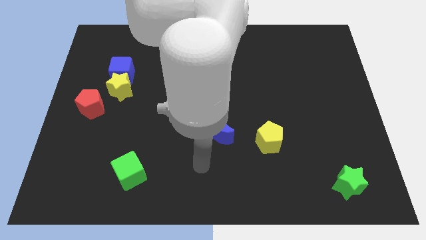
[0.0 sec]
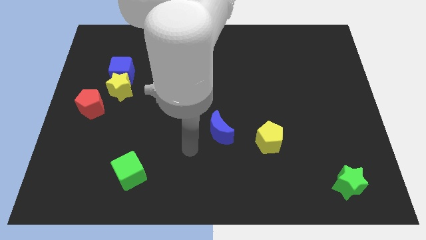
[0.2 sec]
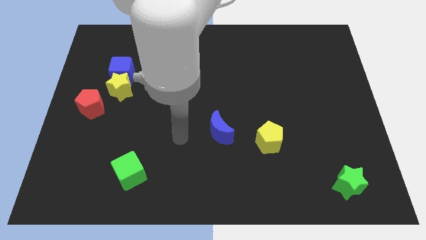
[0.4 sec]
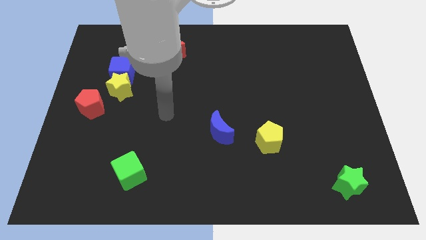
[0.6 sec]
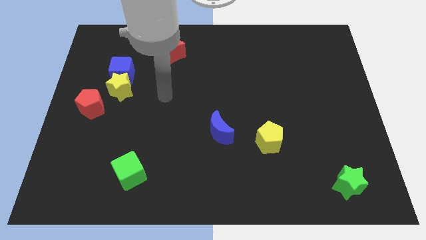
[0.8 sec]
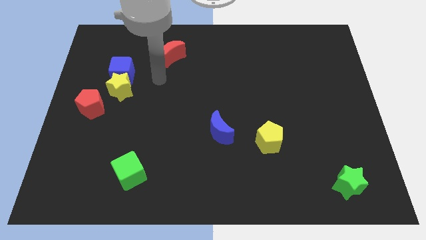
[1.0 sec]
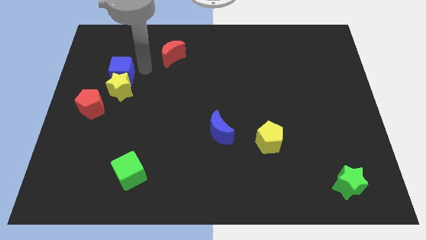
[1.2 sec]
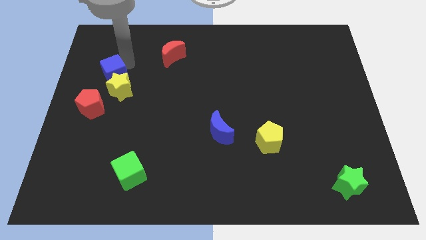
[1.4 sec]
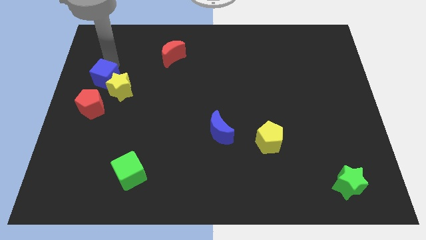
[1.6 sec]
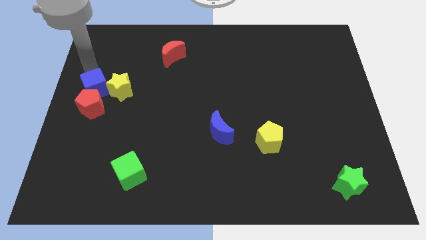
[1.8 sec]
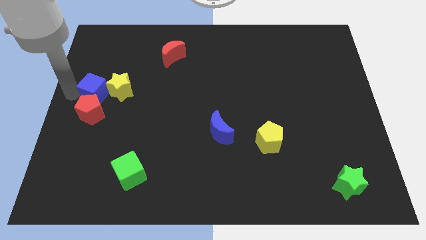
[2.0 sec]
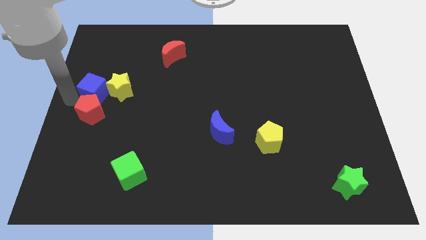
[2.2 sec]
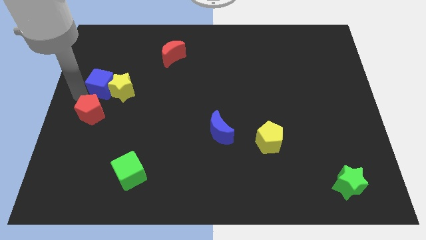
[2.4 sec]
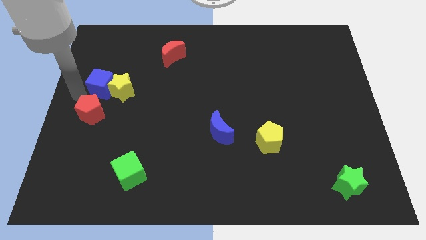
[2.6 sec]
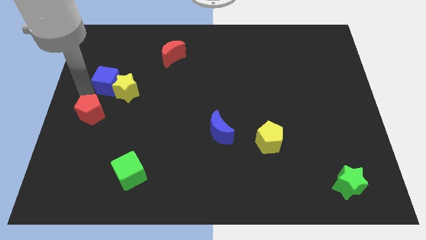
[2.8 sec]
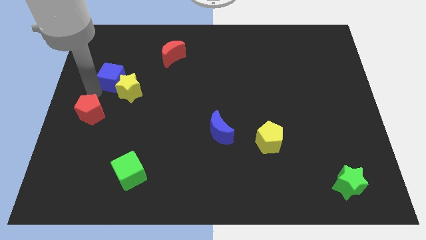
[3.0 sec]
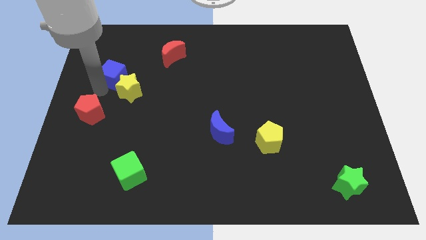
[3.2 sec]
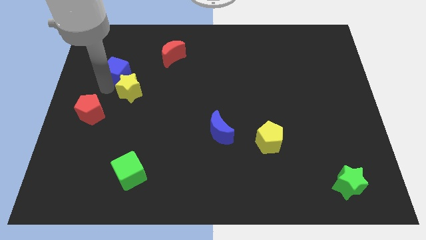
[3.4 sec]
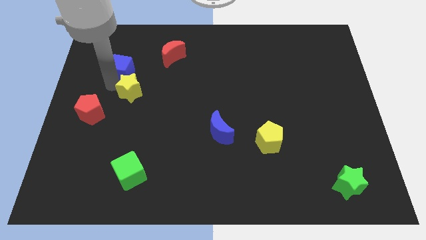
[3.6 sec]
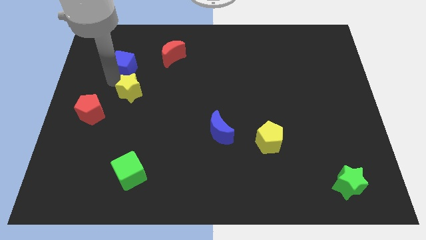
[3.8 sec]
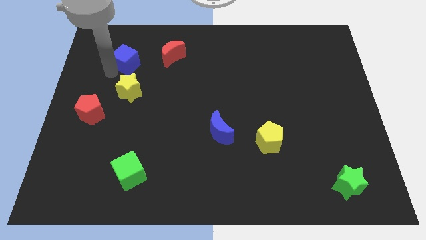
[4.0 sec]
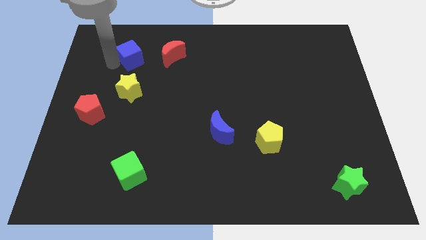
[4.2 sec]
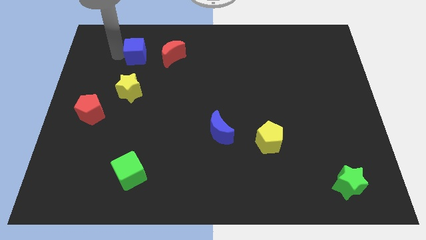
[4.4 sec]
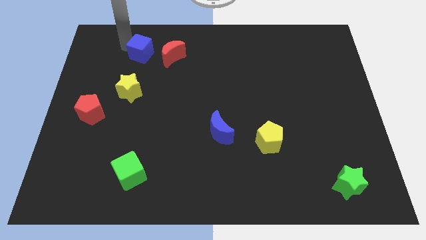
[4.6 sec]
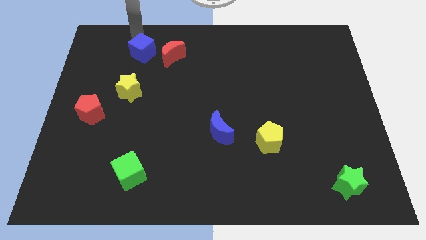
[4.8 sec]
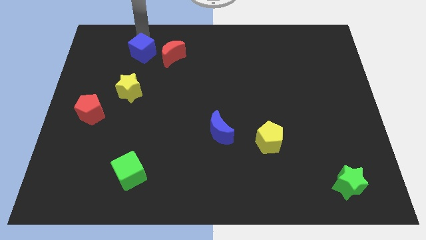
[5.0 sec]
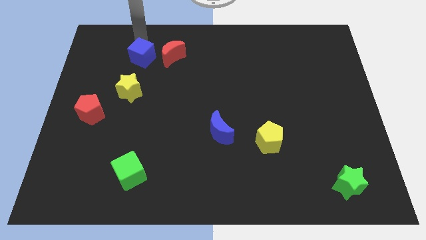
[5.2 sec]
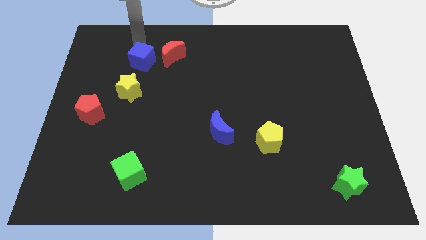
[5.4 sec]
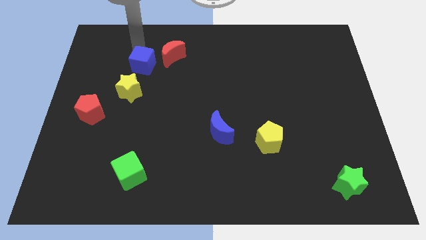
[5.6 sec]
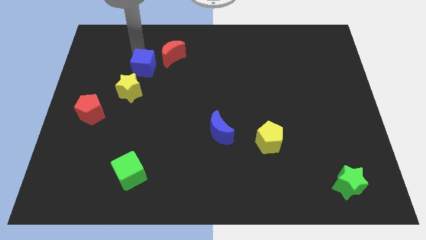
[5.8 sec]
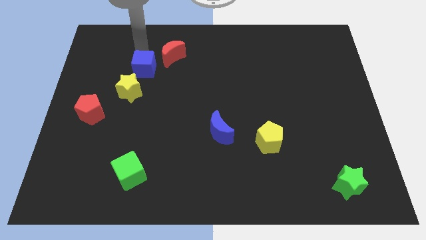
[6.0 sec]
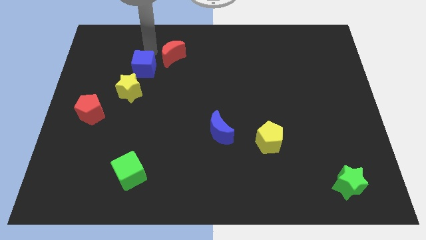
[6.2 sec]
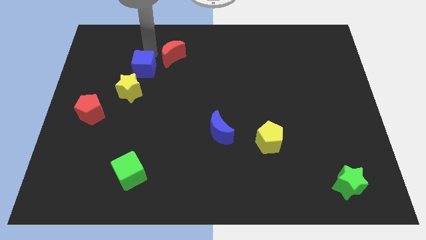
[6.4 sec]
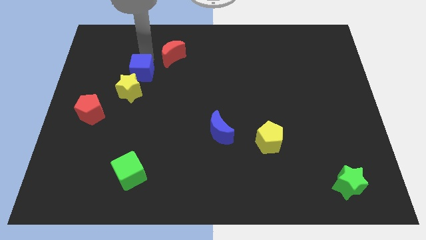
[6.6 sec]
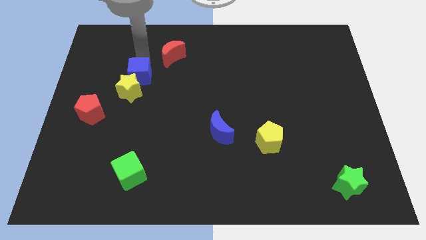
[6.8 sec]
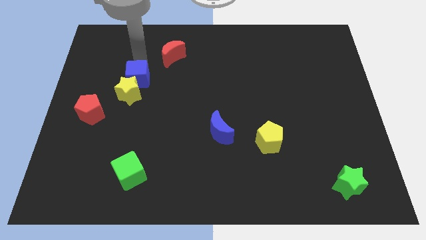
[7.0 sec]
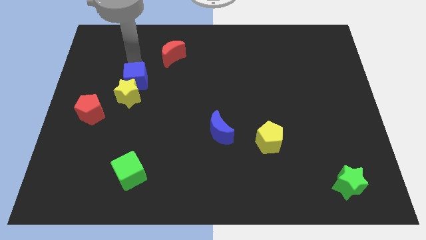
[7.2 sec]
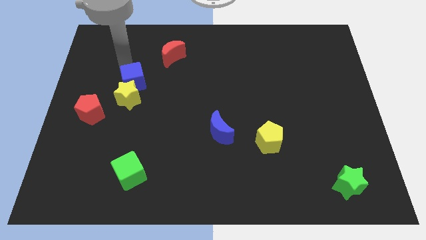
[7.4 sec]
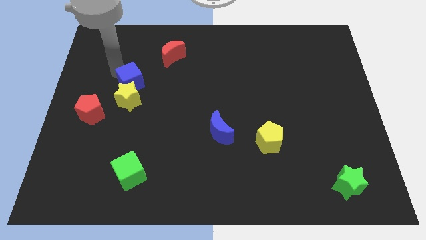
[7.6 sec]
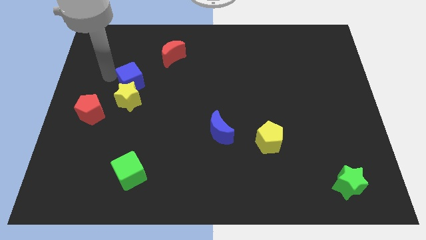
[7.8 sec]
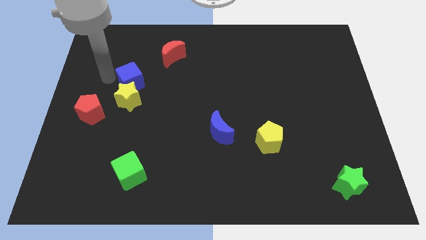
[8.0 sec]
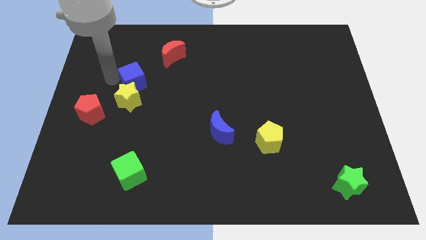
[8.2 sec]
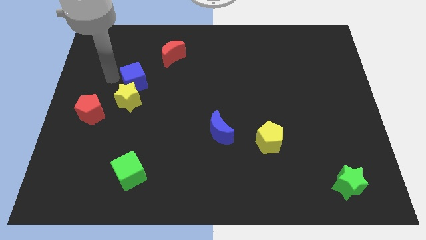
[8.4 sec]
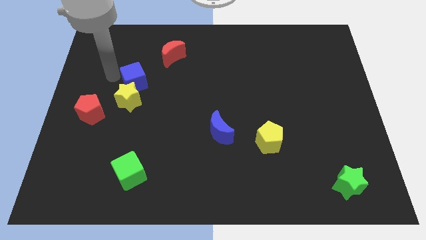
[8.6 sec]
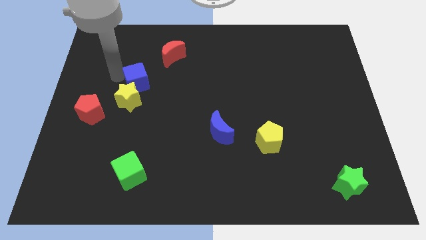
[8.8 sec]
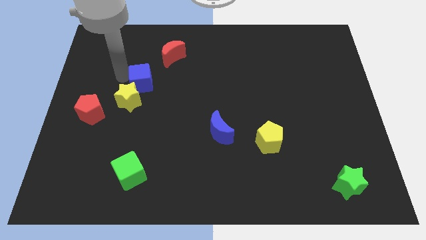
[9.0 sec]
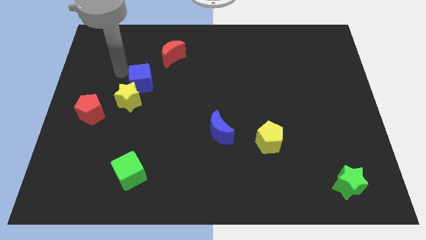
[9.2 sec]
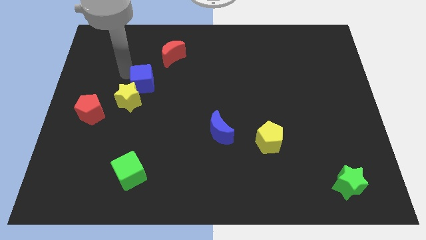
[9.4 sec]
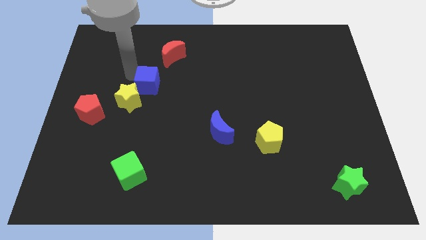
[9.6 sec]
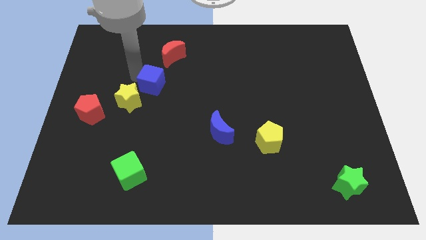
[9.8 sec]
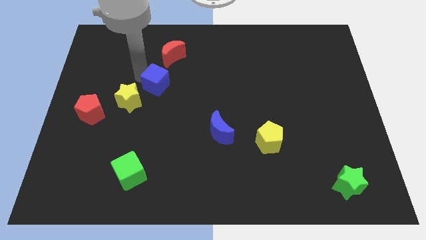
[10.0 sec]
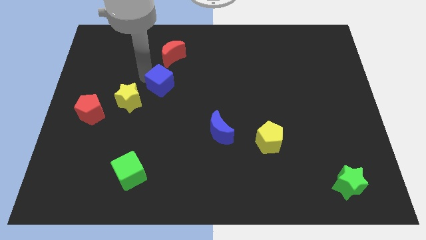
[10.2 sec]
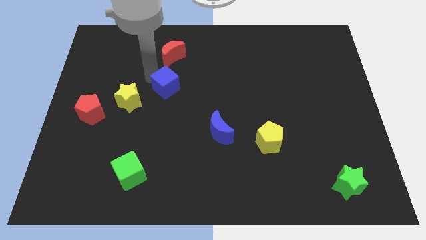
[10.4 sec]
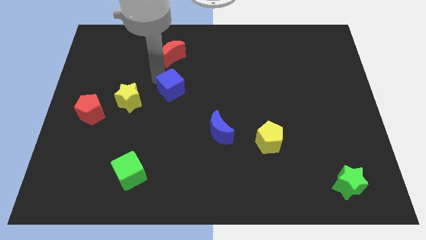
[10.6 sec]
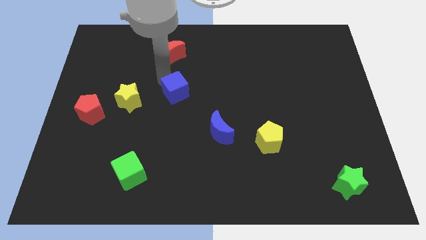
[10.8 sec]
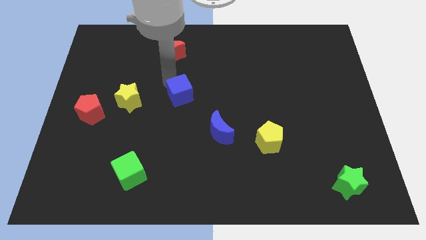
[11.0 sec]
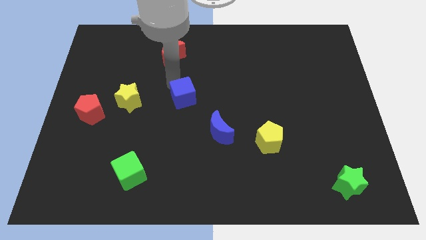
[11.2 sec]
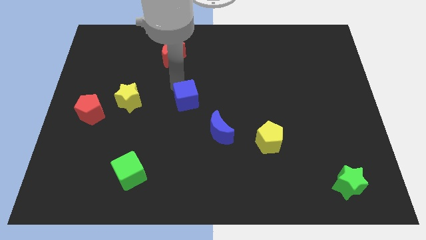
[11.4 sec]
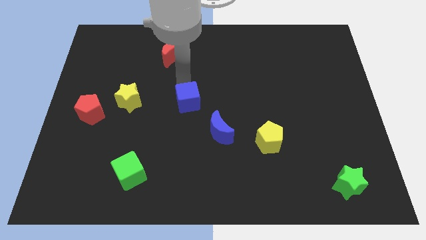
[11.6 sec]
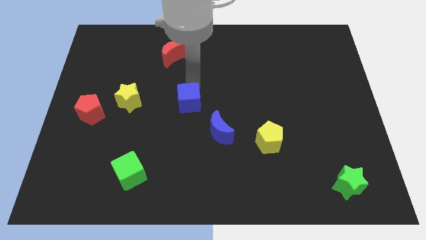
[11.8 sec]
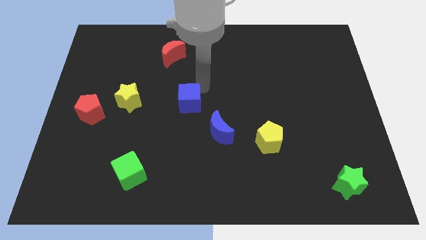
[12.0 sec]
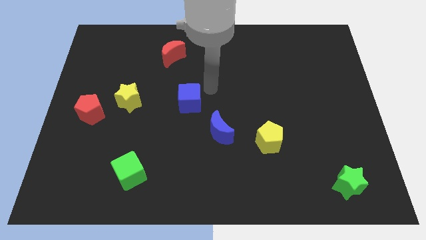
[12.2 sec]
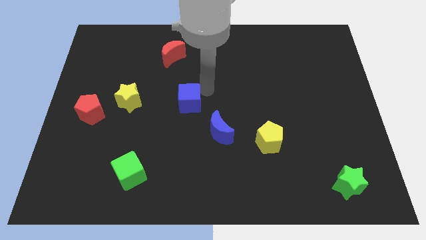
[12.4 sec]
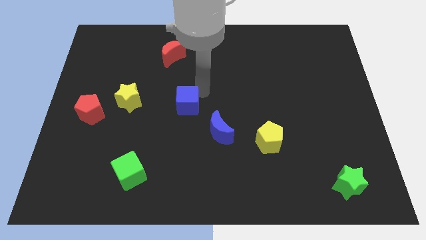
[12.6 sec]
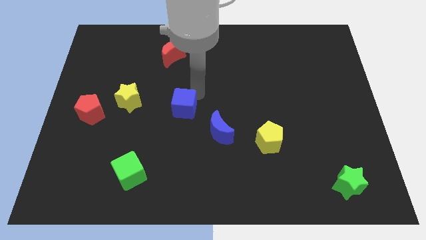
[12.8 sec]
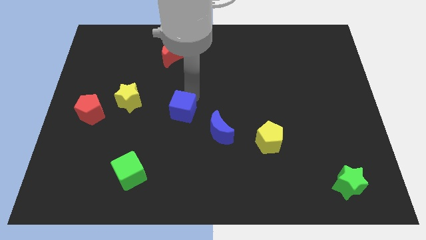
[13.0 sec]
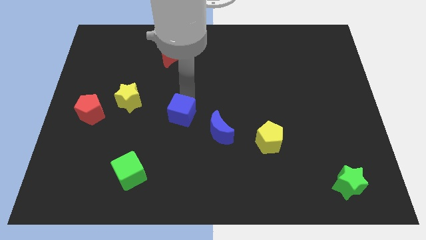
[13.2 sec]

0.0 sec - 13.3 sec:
push the blue cube downwards and right

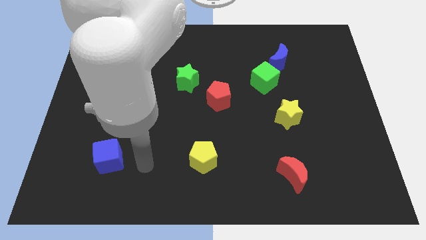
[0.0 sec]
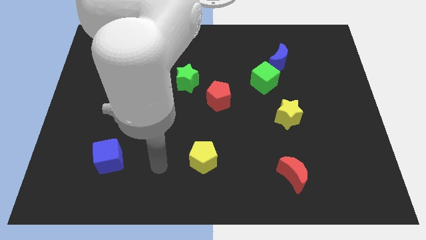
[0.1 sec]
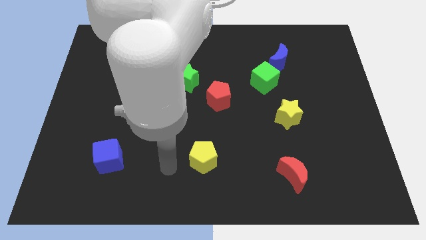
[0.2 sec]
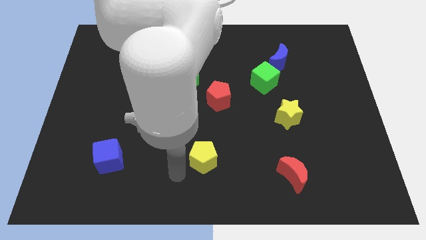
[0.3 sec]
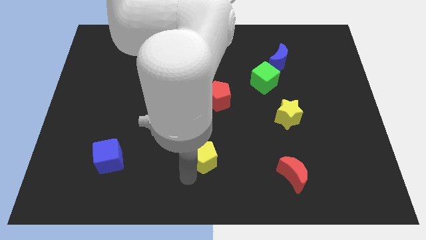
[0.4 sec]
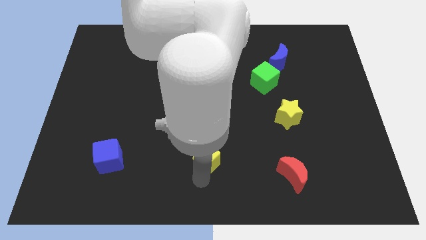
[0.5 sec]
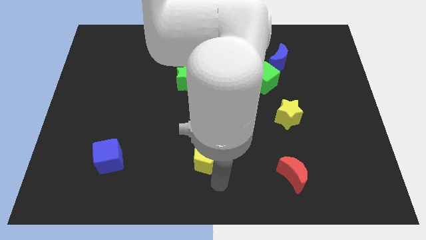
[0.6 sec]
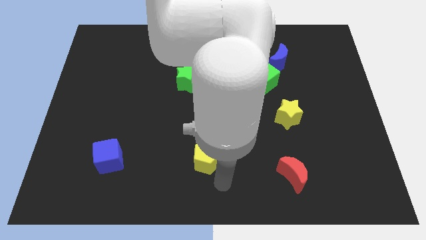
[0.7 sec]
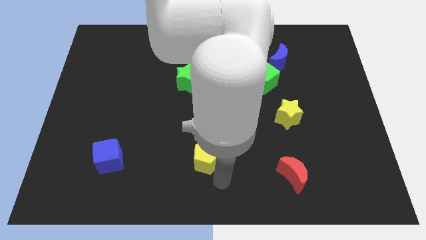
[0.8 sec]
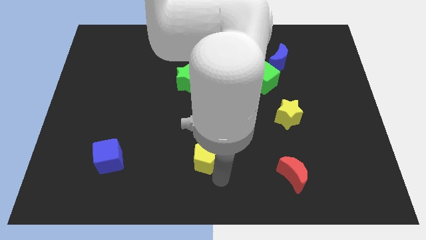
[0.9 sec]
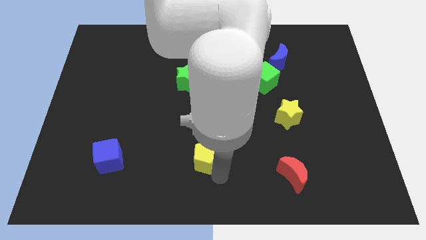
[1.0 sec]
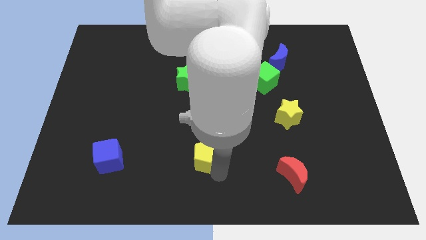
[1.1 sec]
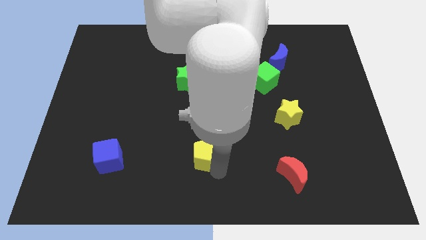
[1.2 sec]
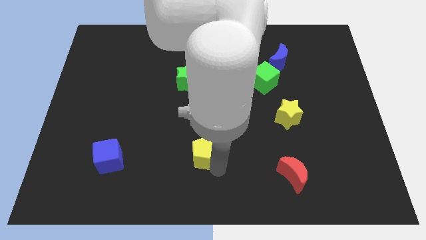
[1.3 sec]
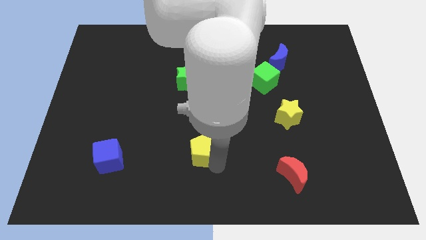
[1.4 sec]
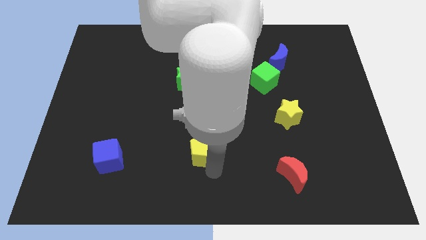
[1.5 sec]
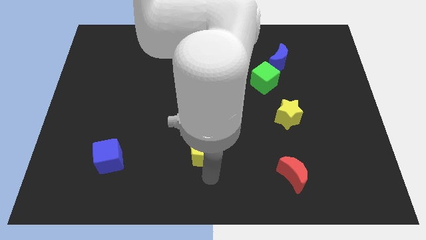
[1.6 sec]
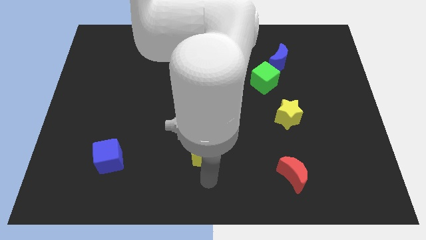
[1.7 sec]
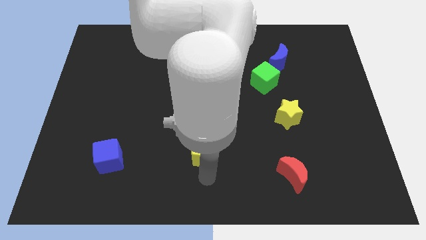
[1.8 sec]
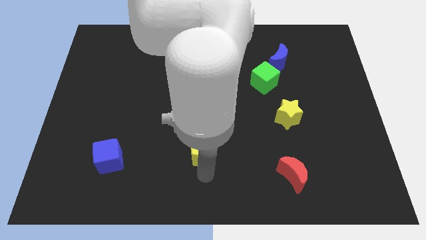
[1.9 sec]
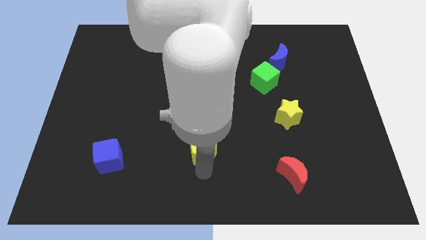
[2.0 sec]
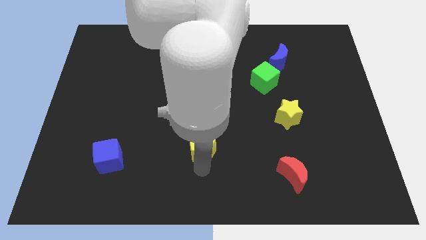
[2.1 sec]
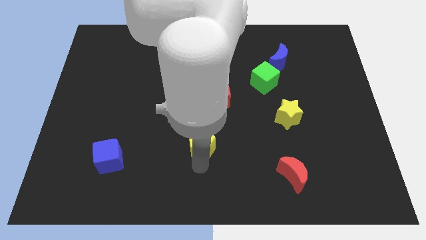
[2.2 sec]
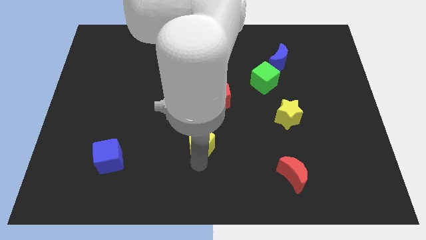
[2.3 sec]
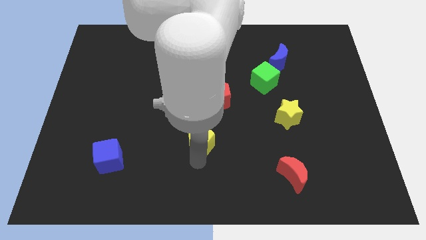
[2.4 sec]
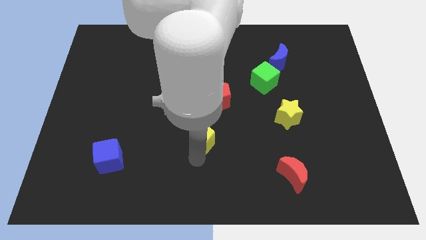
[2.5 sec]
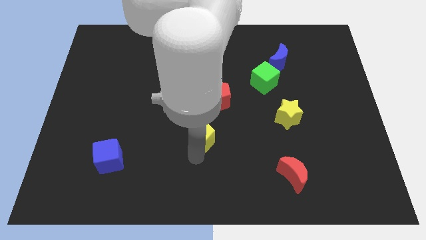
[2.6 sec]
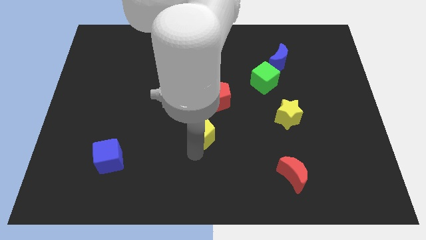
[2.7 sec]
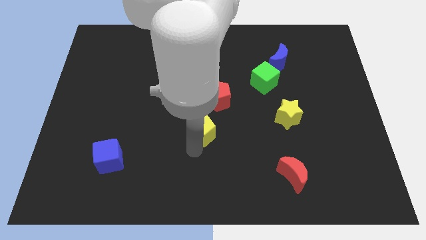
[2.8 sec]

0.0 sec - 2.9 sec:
slightly slide the yellow pentagon upwards
